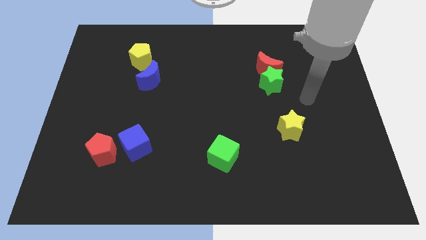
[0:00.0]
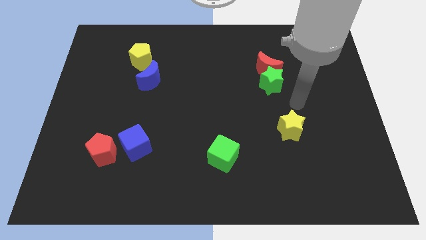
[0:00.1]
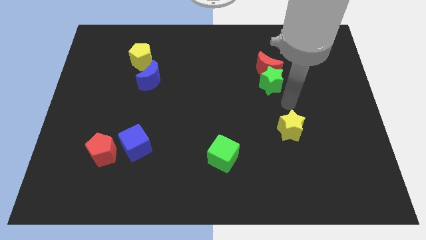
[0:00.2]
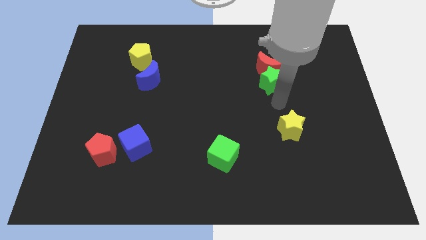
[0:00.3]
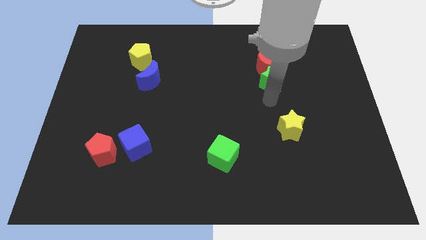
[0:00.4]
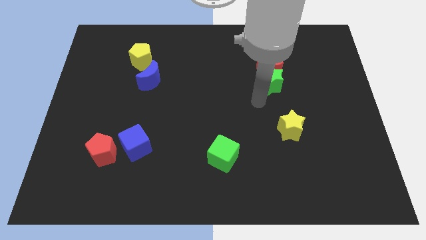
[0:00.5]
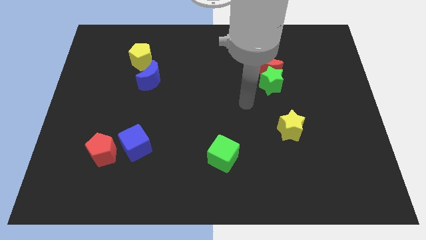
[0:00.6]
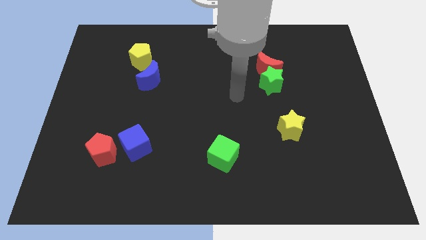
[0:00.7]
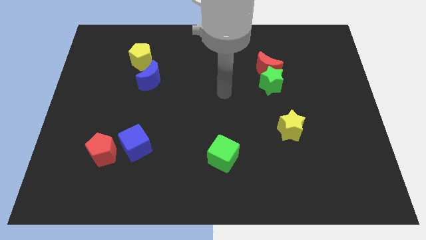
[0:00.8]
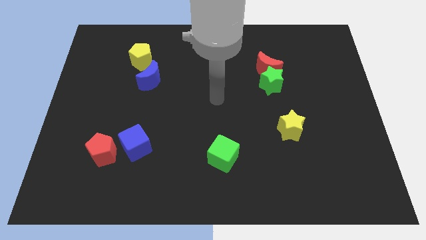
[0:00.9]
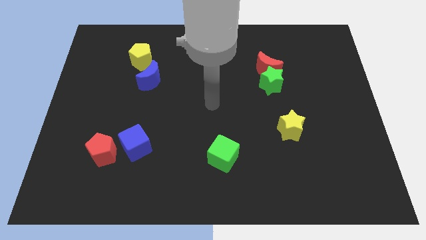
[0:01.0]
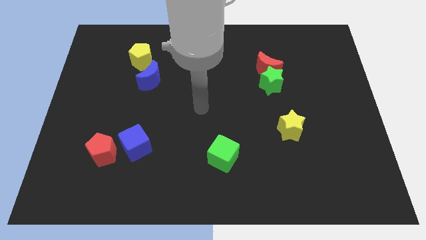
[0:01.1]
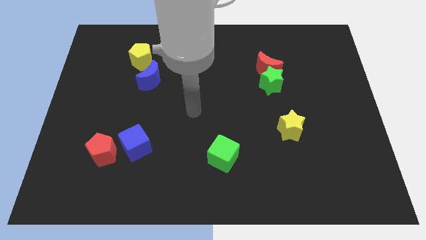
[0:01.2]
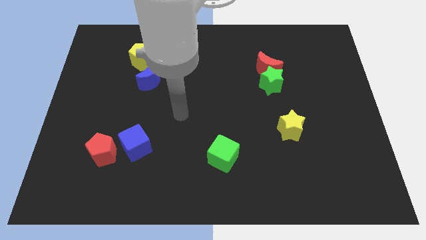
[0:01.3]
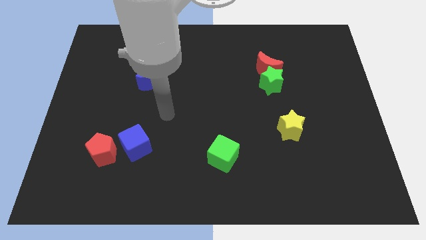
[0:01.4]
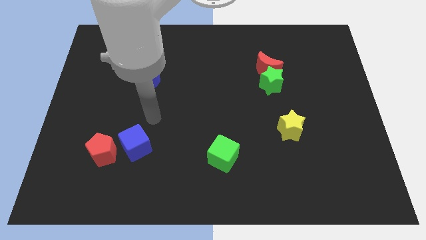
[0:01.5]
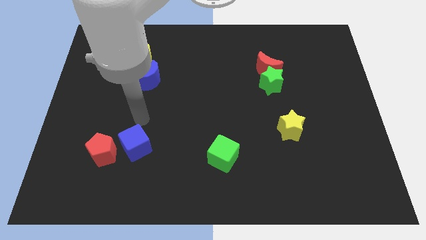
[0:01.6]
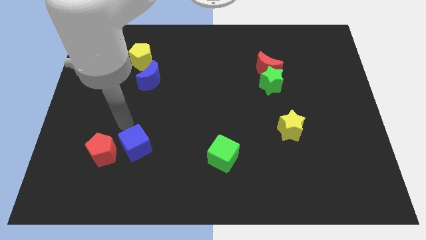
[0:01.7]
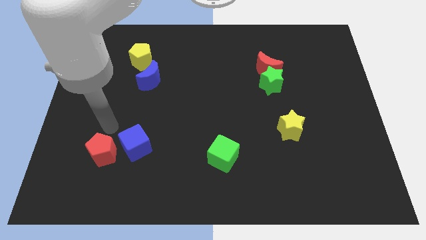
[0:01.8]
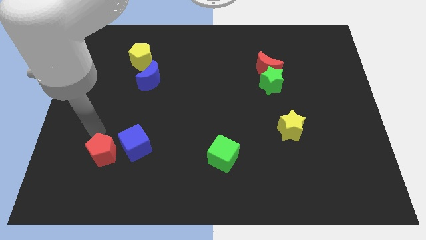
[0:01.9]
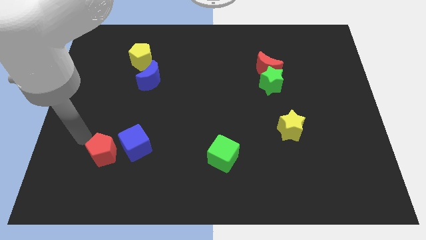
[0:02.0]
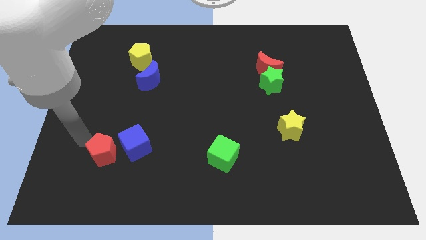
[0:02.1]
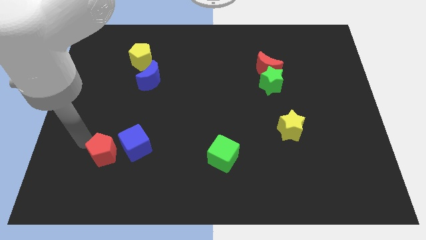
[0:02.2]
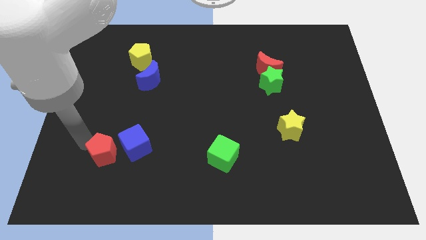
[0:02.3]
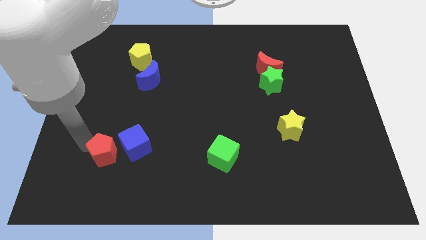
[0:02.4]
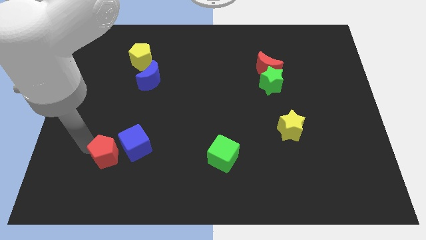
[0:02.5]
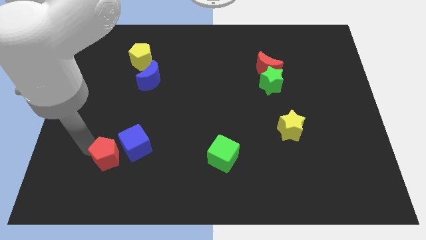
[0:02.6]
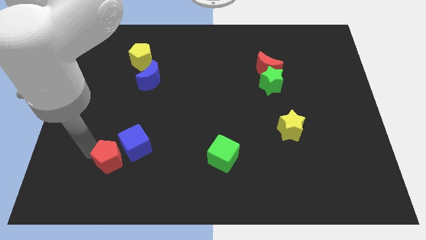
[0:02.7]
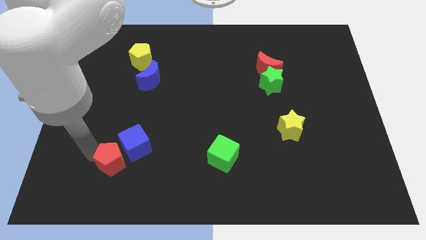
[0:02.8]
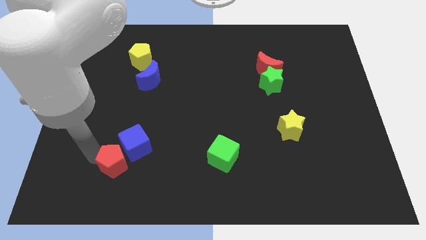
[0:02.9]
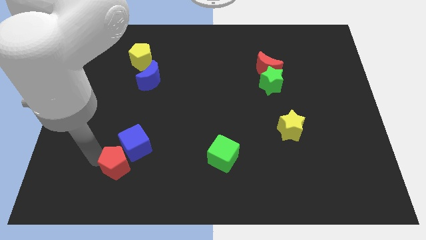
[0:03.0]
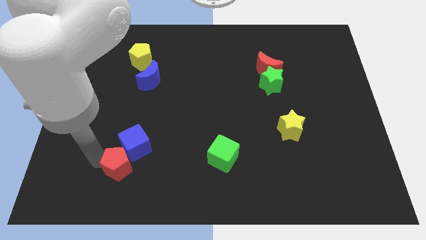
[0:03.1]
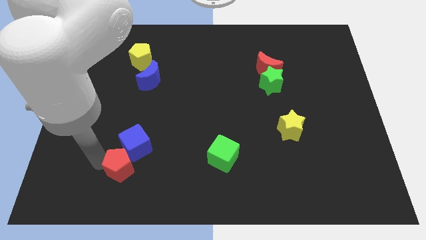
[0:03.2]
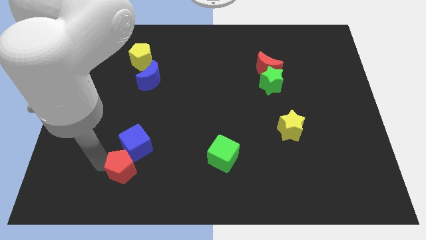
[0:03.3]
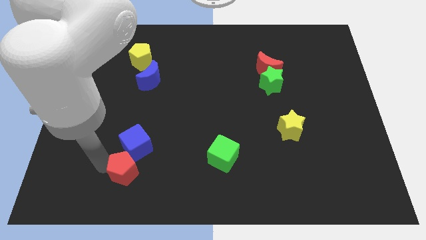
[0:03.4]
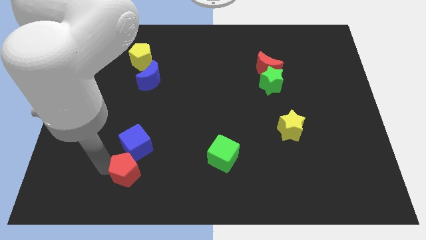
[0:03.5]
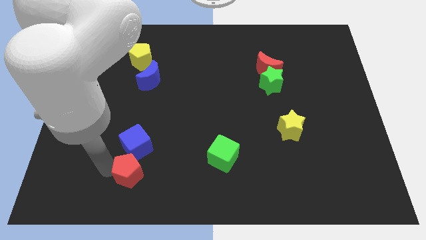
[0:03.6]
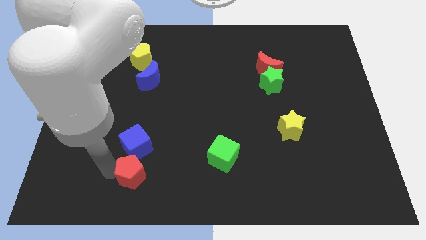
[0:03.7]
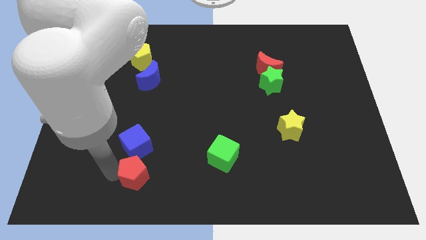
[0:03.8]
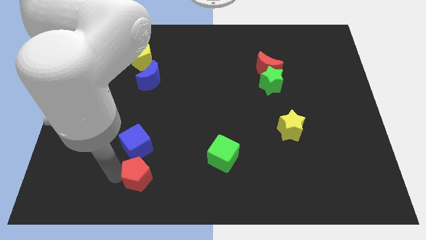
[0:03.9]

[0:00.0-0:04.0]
move the red pentagon to the right somewhat

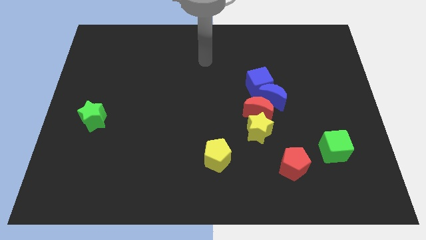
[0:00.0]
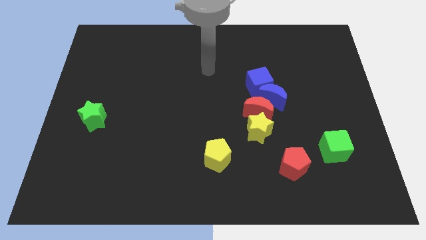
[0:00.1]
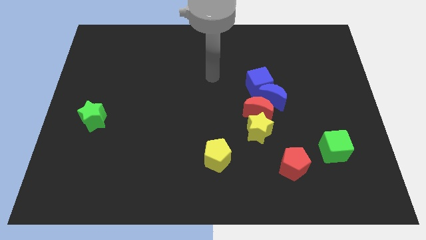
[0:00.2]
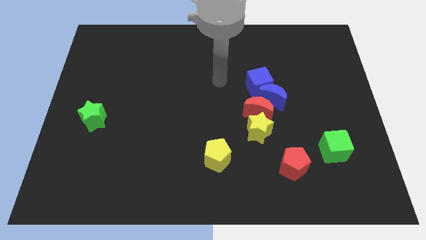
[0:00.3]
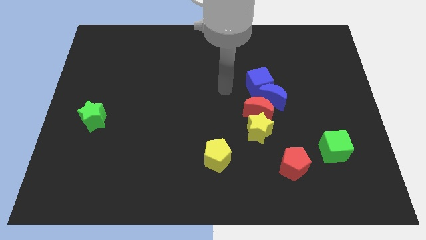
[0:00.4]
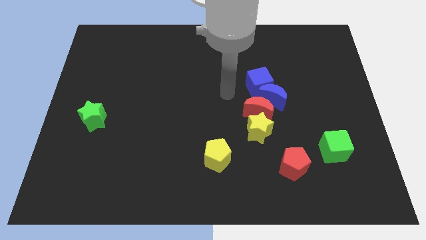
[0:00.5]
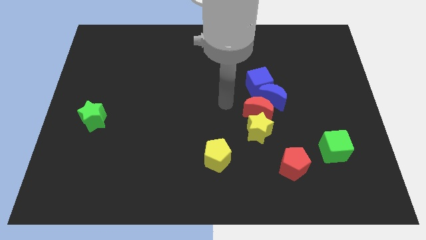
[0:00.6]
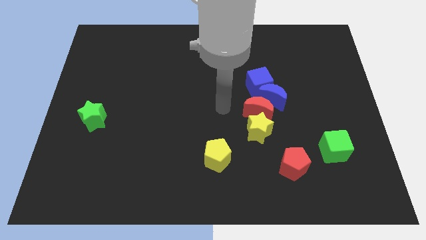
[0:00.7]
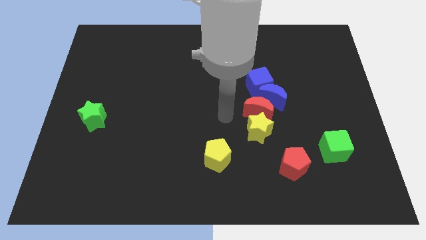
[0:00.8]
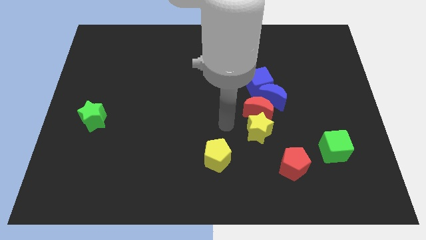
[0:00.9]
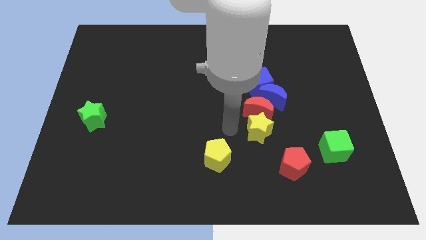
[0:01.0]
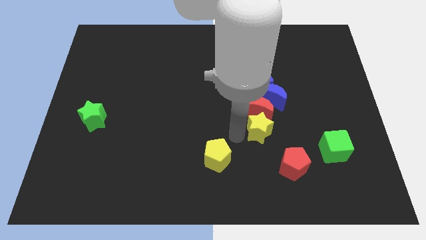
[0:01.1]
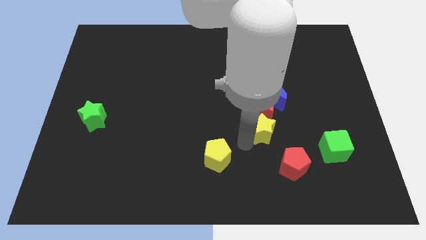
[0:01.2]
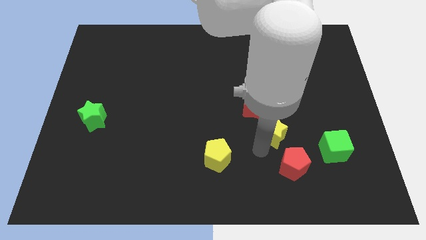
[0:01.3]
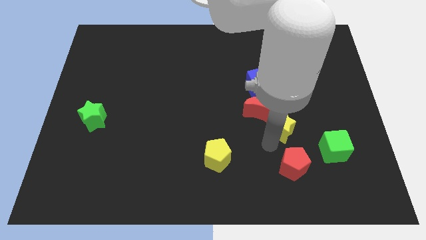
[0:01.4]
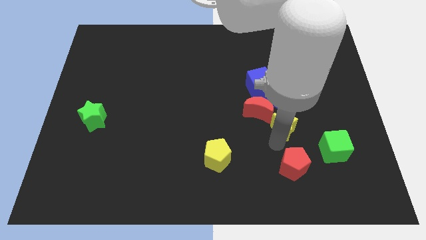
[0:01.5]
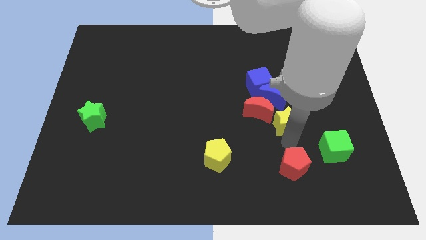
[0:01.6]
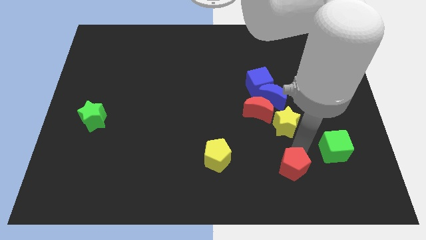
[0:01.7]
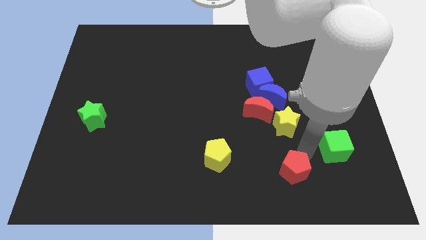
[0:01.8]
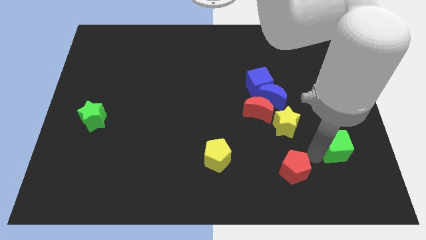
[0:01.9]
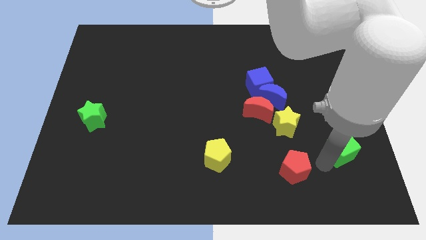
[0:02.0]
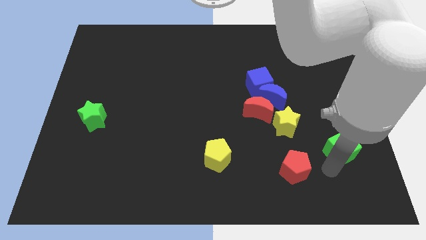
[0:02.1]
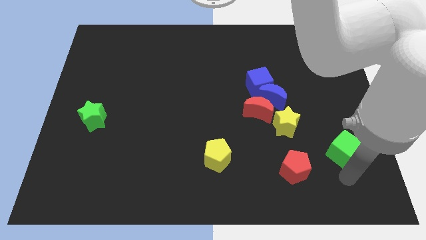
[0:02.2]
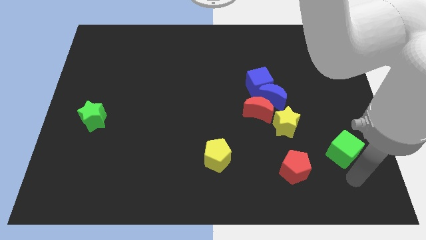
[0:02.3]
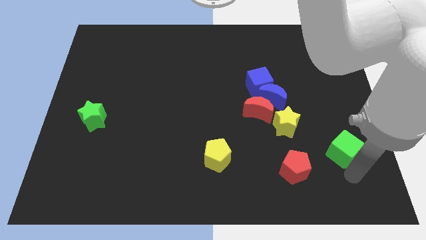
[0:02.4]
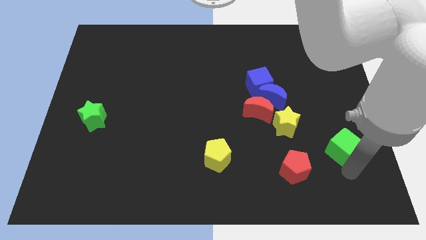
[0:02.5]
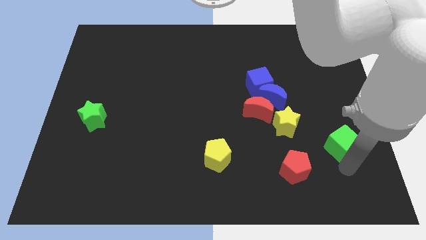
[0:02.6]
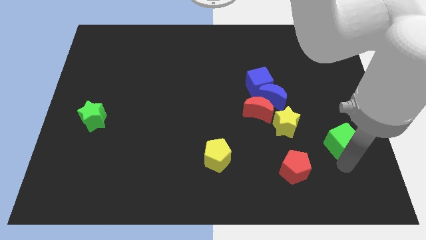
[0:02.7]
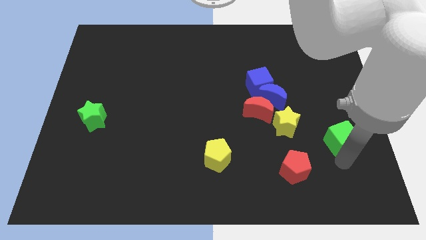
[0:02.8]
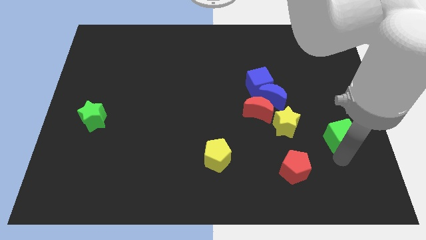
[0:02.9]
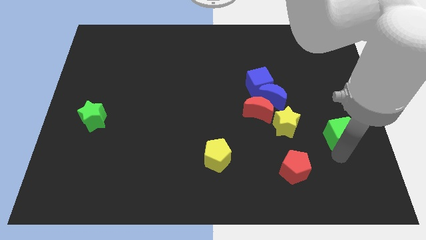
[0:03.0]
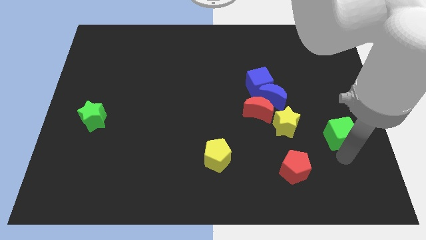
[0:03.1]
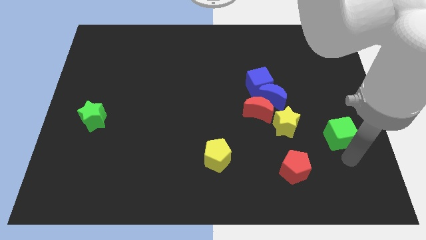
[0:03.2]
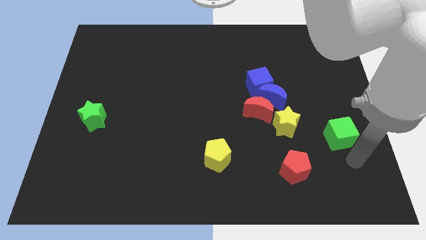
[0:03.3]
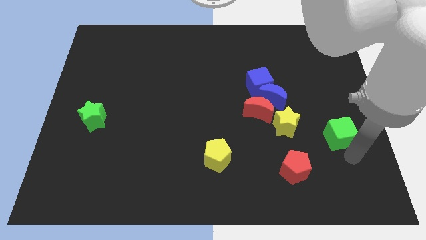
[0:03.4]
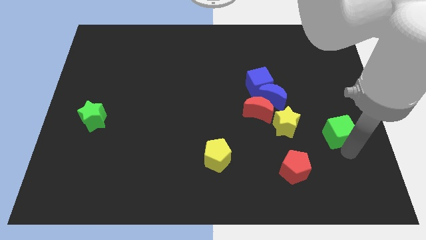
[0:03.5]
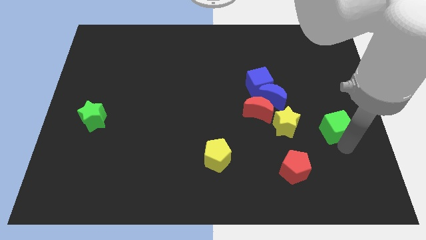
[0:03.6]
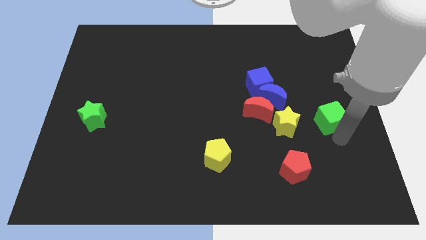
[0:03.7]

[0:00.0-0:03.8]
slightly slide the green cube upwards
